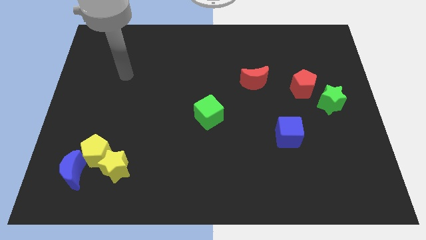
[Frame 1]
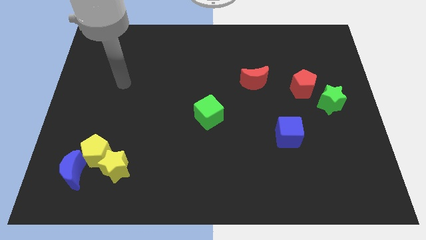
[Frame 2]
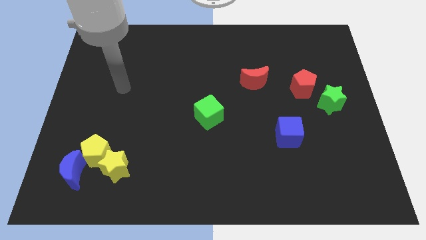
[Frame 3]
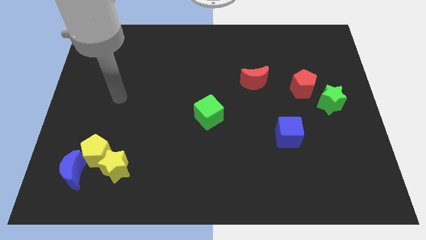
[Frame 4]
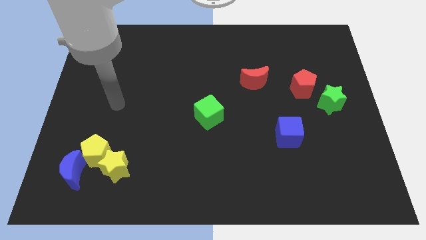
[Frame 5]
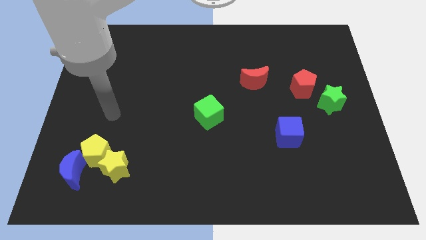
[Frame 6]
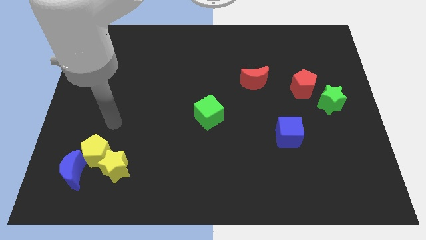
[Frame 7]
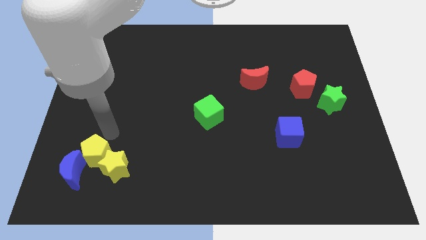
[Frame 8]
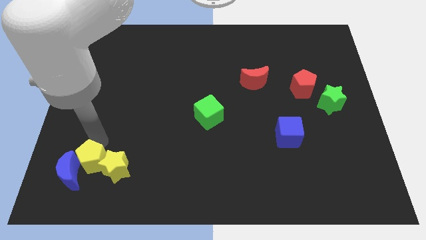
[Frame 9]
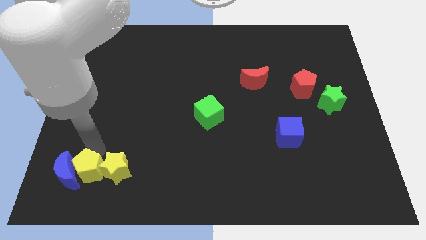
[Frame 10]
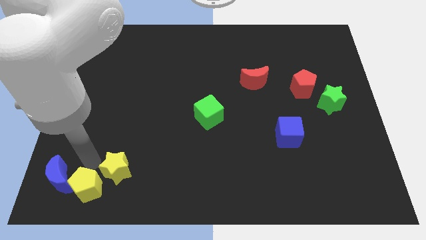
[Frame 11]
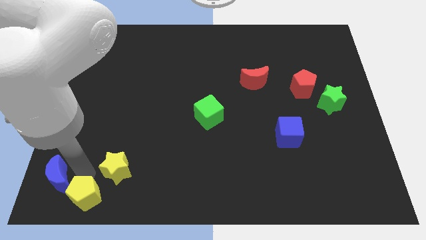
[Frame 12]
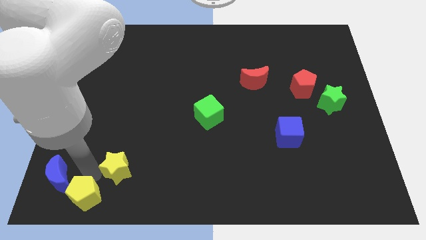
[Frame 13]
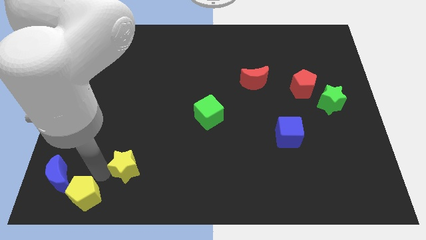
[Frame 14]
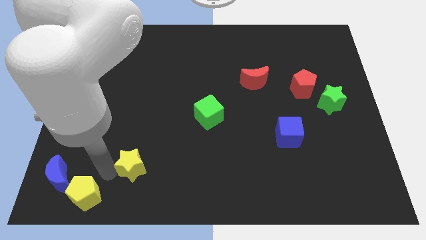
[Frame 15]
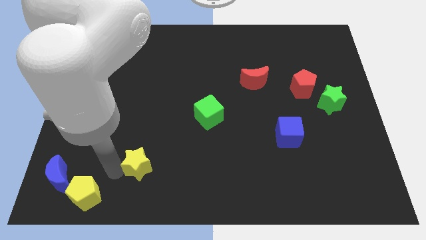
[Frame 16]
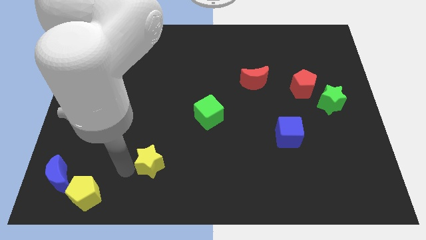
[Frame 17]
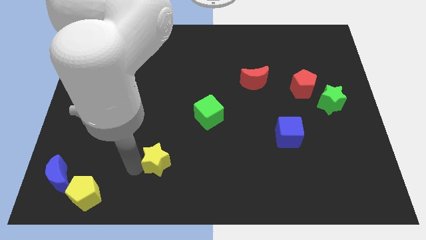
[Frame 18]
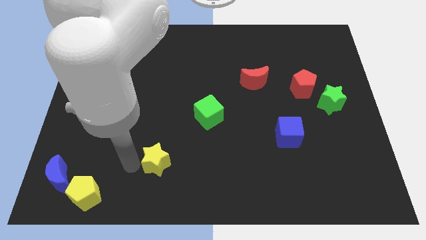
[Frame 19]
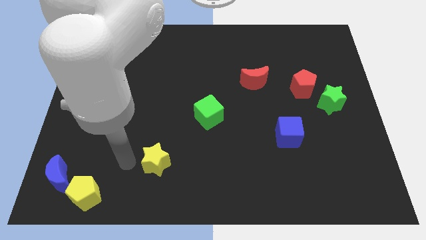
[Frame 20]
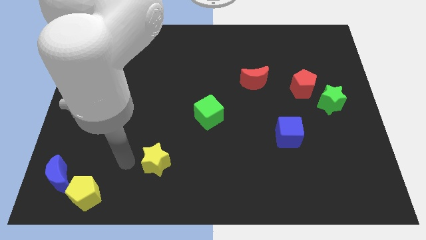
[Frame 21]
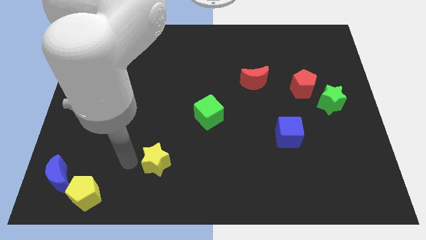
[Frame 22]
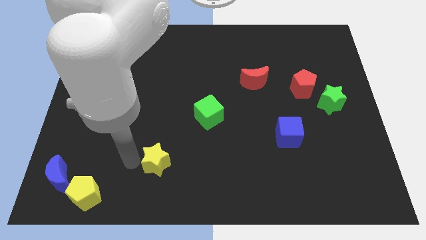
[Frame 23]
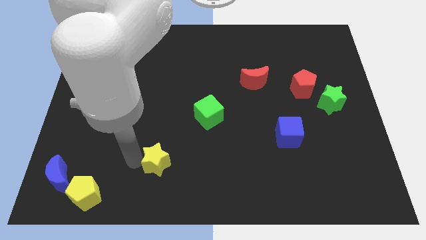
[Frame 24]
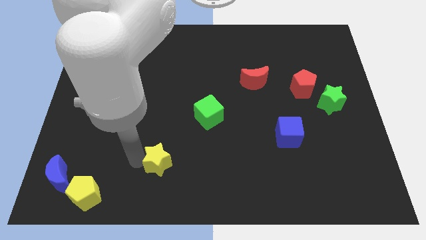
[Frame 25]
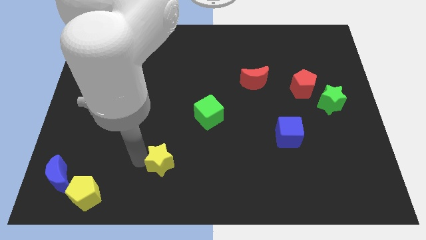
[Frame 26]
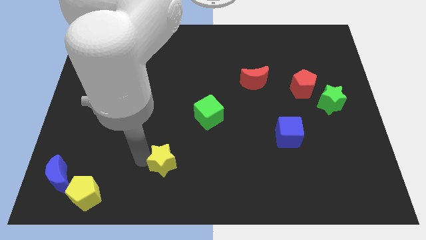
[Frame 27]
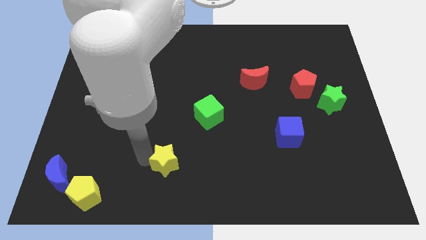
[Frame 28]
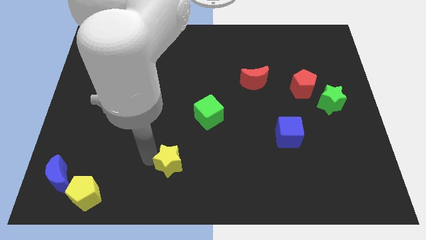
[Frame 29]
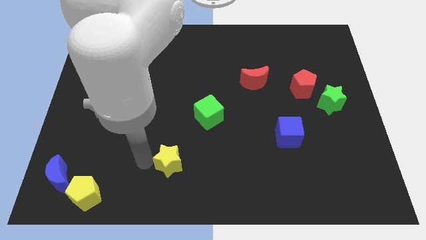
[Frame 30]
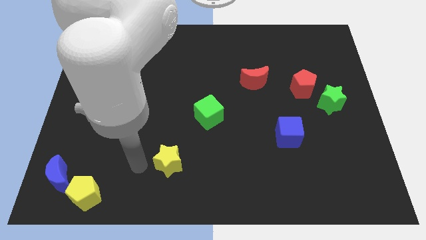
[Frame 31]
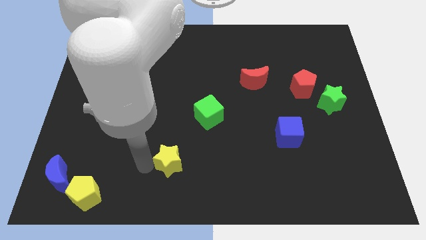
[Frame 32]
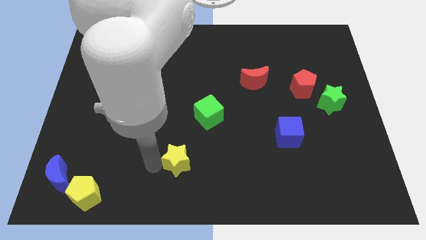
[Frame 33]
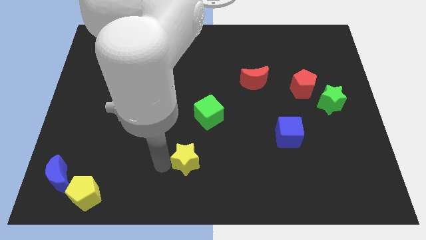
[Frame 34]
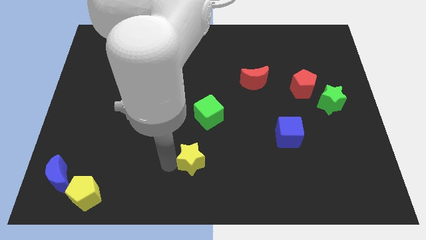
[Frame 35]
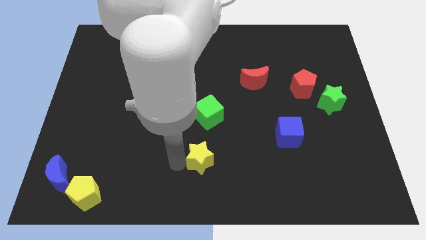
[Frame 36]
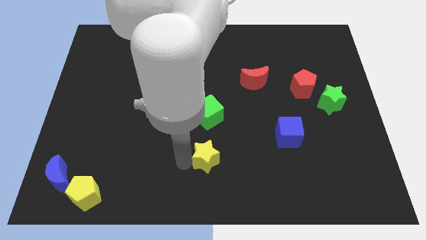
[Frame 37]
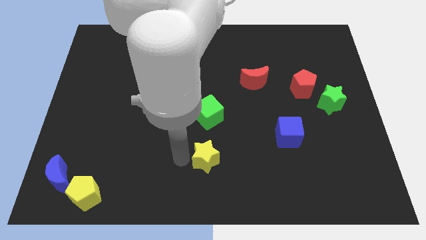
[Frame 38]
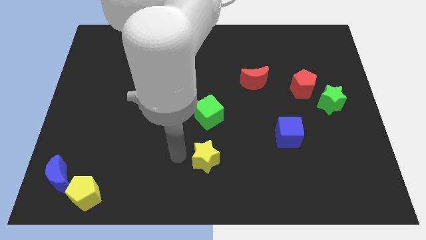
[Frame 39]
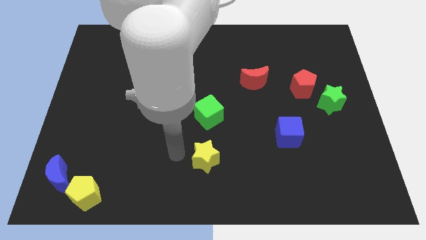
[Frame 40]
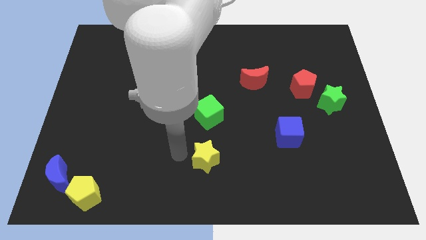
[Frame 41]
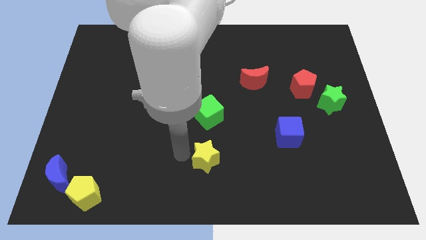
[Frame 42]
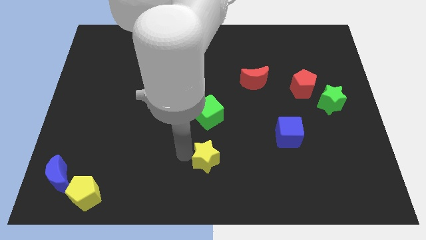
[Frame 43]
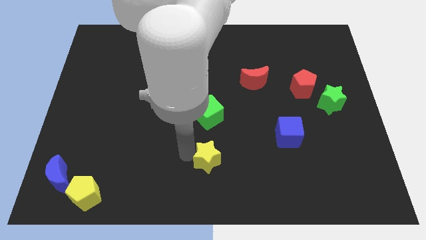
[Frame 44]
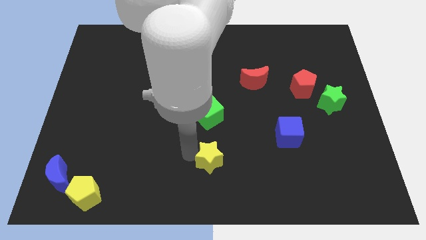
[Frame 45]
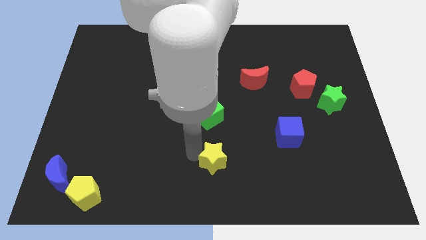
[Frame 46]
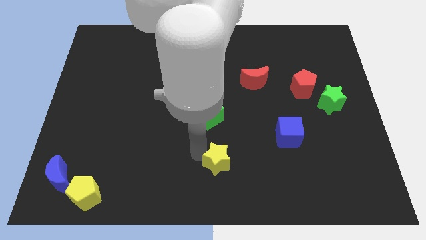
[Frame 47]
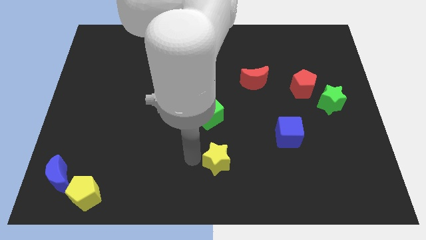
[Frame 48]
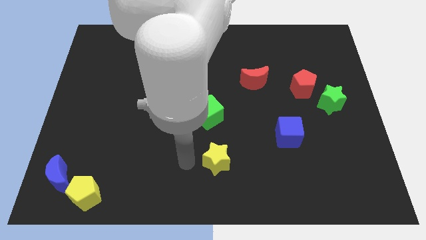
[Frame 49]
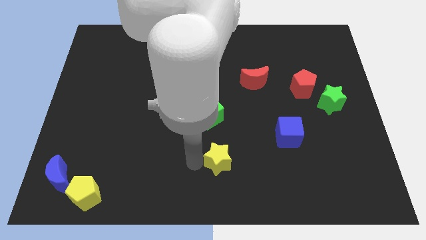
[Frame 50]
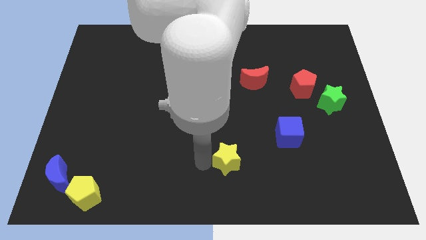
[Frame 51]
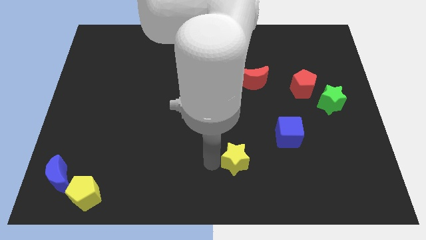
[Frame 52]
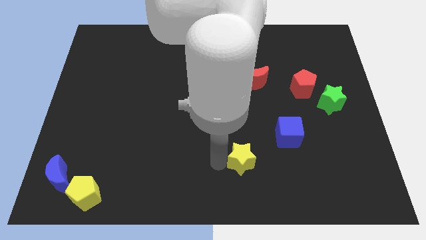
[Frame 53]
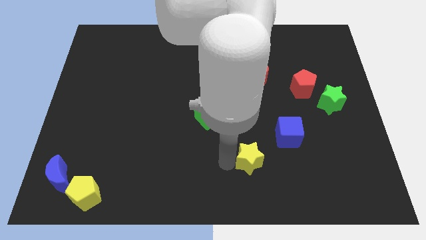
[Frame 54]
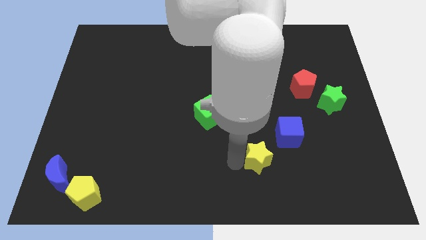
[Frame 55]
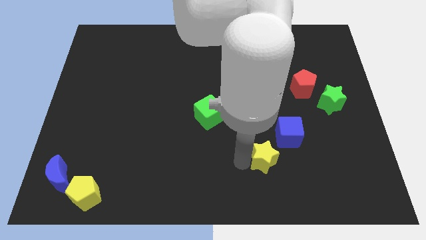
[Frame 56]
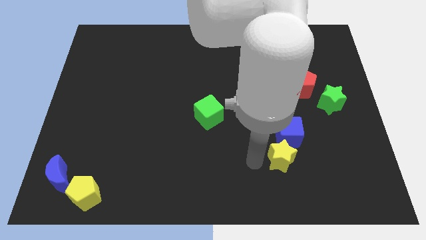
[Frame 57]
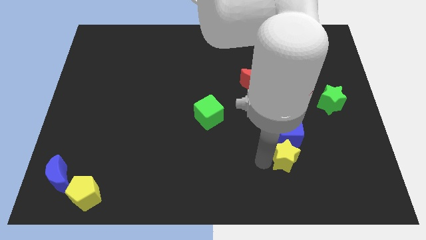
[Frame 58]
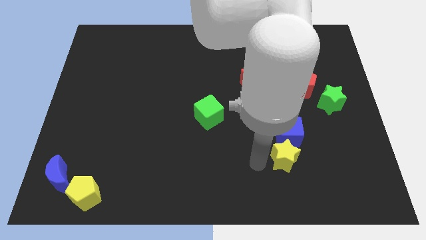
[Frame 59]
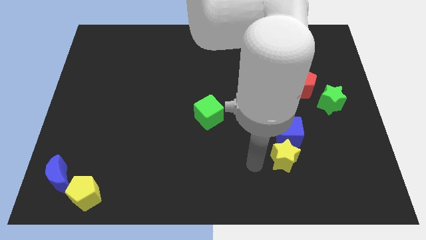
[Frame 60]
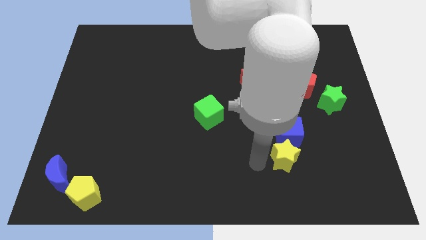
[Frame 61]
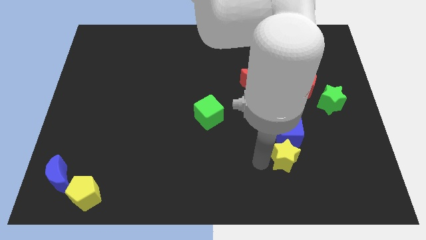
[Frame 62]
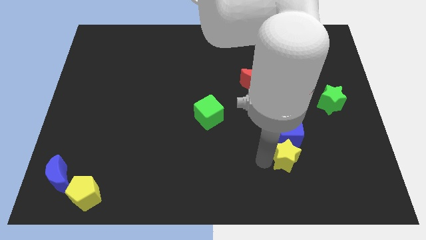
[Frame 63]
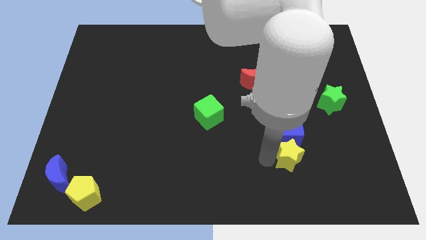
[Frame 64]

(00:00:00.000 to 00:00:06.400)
slide the yellow star to the bottom right of the blue cube

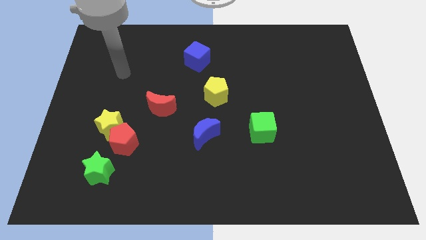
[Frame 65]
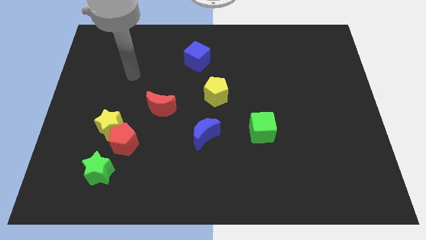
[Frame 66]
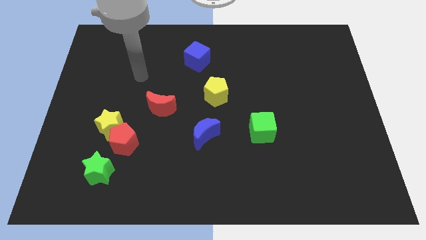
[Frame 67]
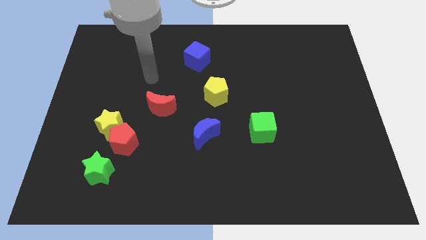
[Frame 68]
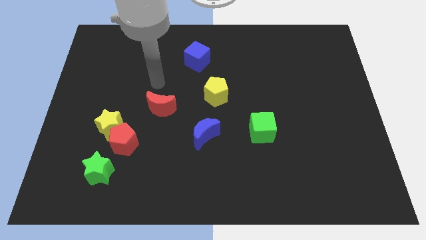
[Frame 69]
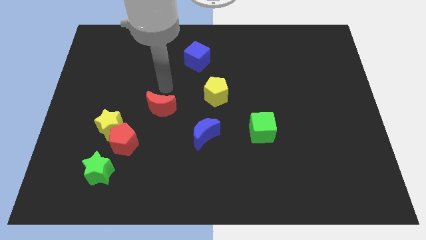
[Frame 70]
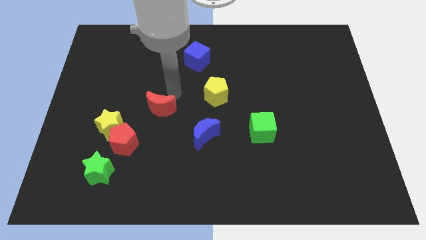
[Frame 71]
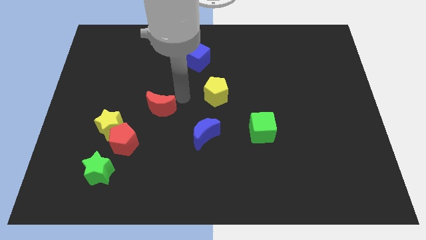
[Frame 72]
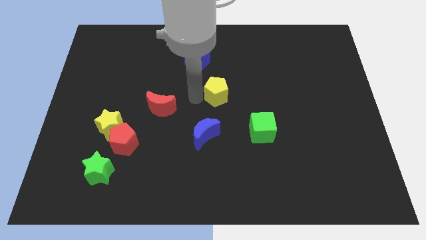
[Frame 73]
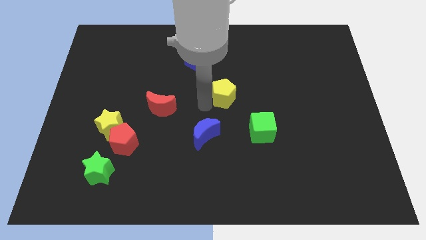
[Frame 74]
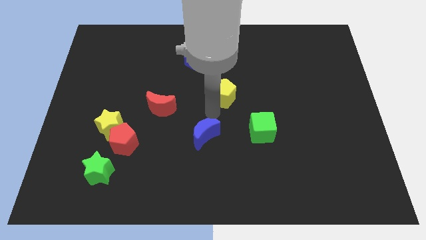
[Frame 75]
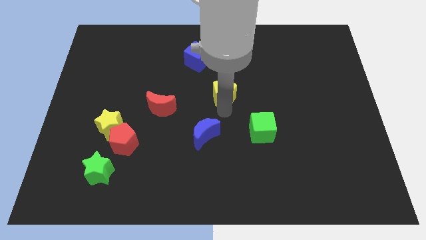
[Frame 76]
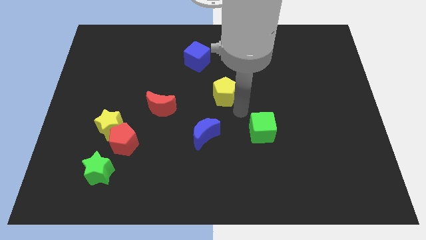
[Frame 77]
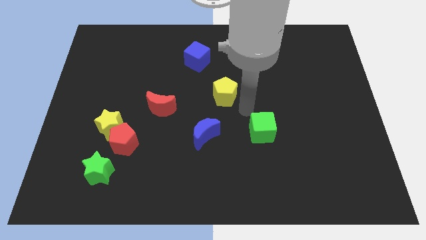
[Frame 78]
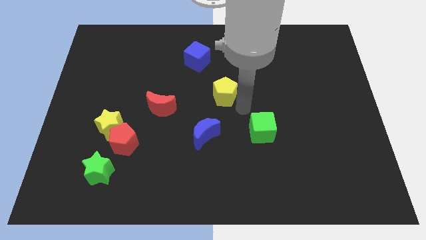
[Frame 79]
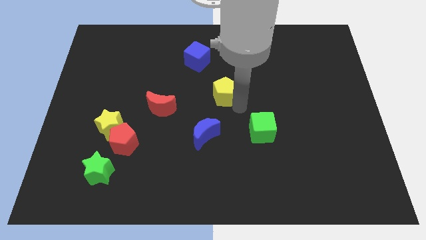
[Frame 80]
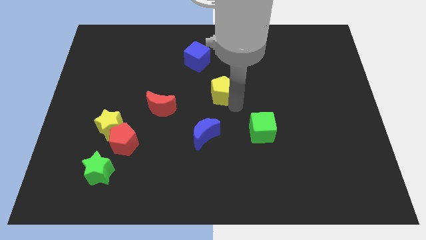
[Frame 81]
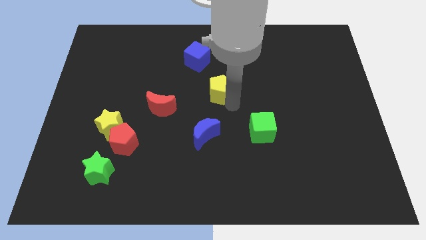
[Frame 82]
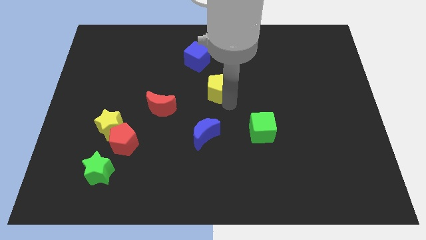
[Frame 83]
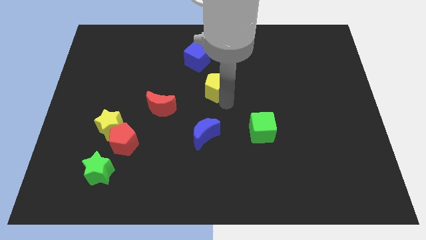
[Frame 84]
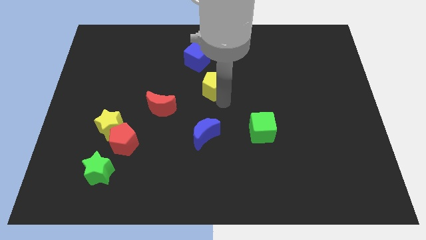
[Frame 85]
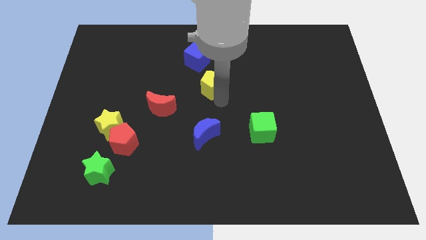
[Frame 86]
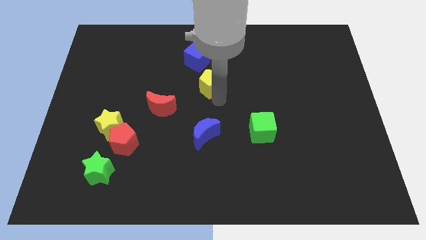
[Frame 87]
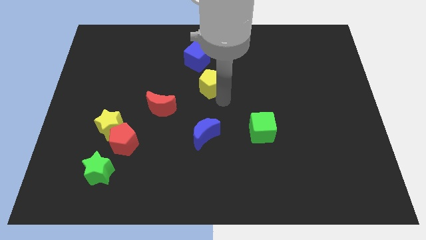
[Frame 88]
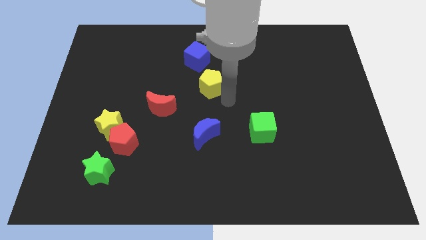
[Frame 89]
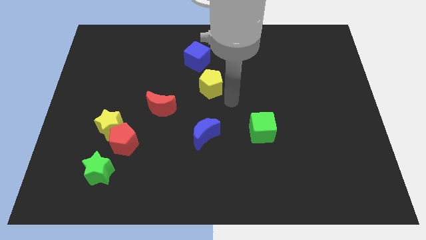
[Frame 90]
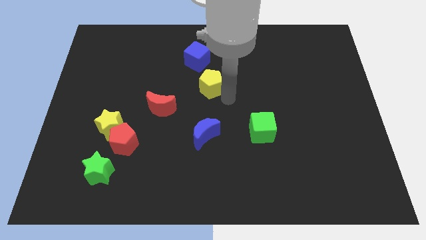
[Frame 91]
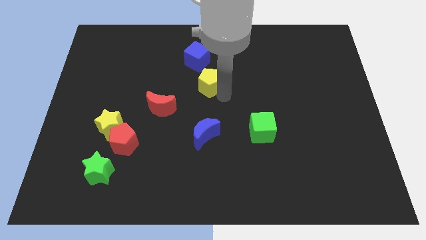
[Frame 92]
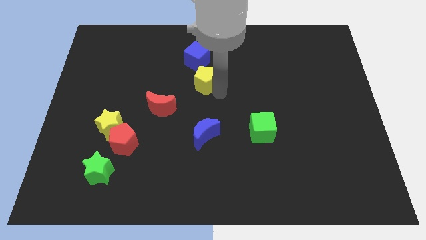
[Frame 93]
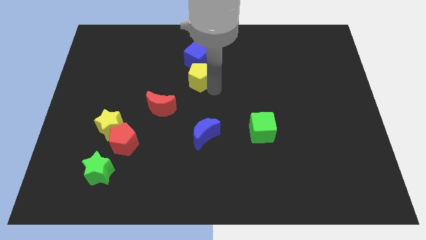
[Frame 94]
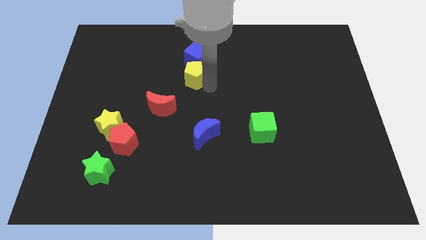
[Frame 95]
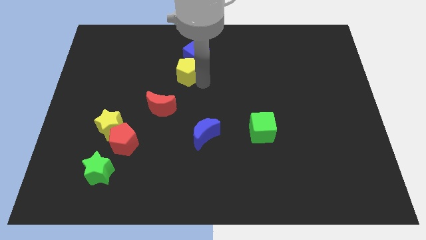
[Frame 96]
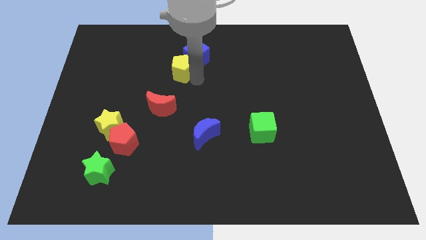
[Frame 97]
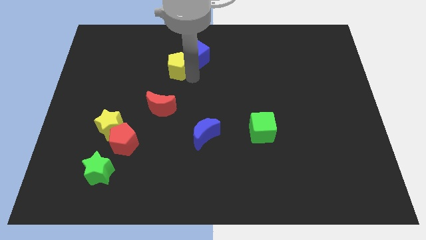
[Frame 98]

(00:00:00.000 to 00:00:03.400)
put the yellow pentagon to the left side of the blue cube
